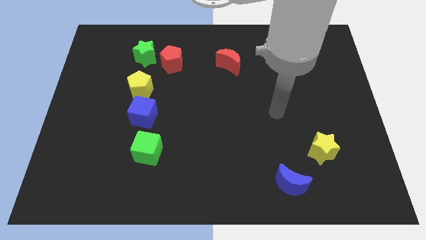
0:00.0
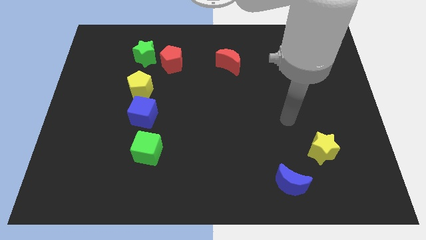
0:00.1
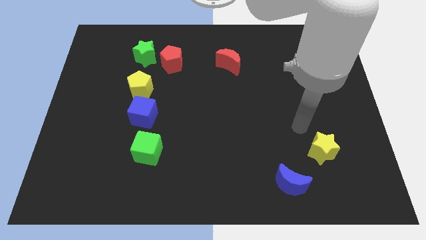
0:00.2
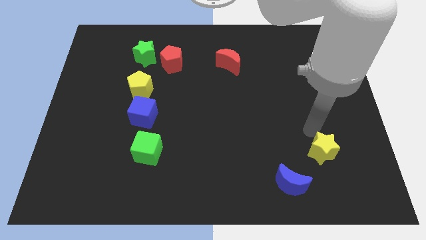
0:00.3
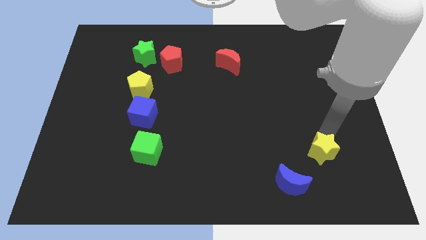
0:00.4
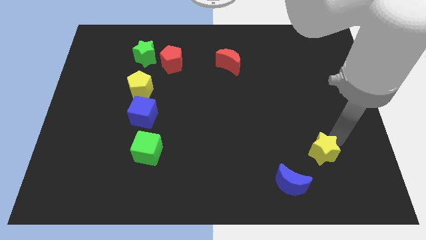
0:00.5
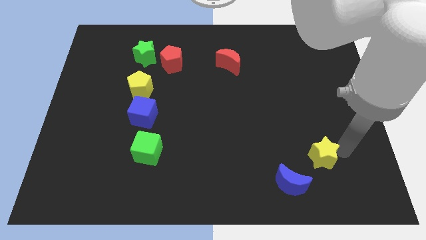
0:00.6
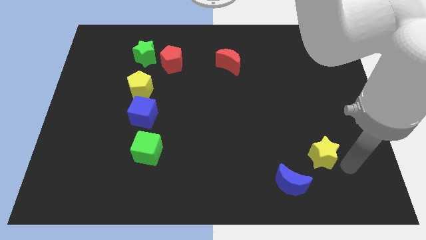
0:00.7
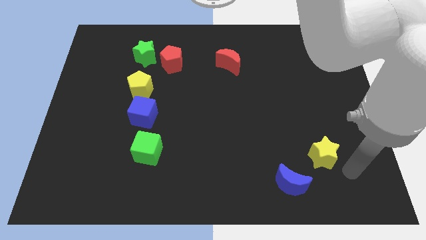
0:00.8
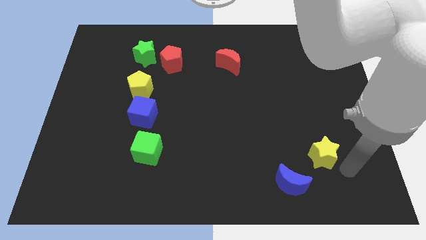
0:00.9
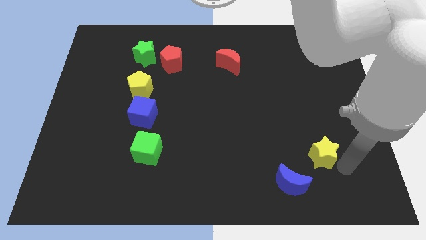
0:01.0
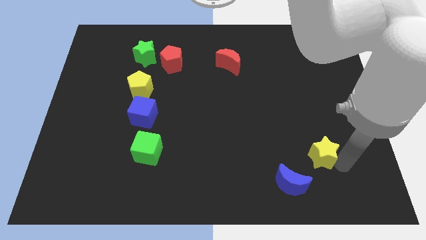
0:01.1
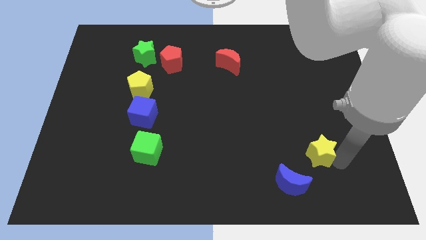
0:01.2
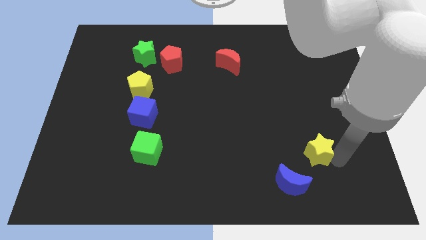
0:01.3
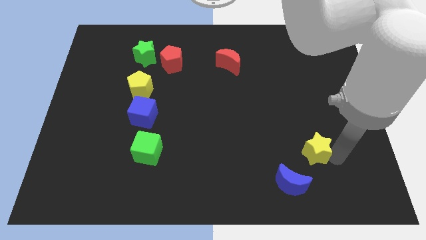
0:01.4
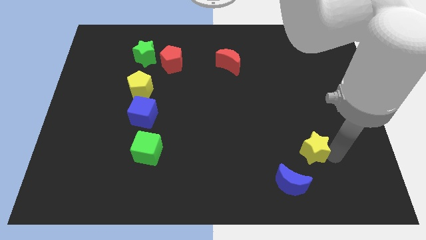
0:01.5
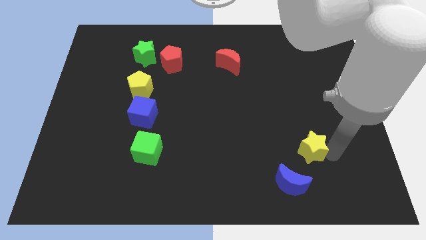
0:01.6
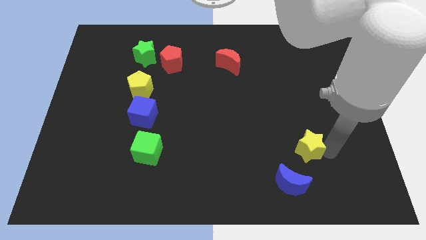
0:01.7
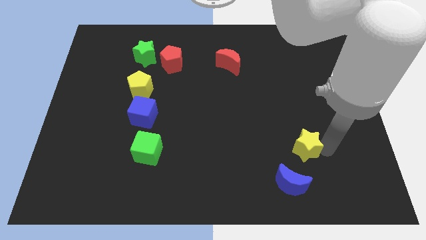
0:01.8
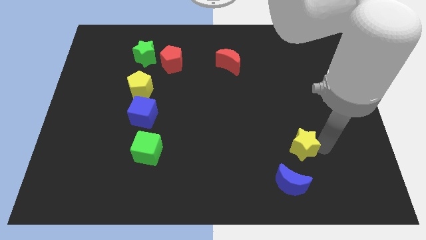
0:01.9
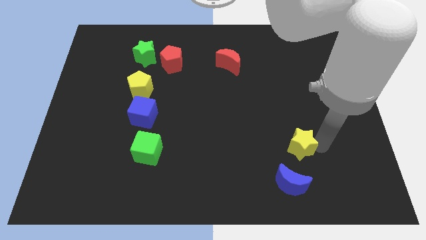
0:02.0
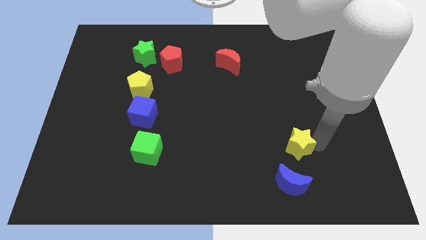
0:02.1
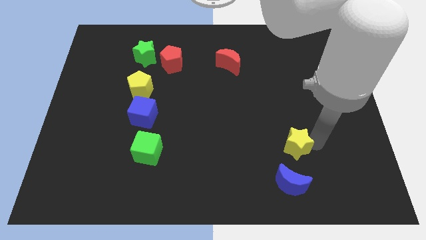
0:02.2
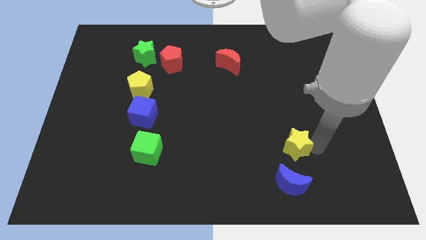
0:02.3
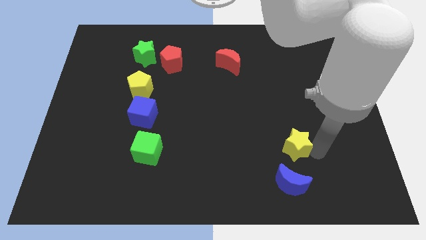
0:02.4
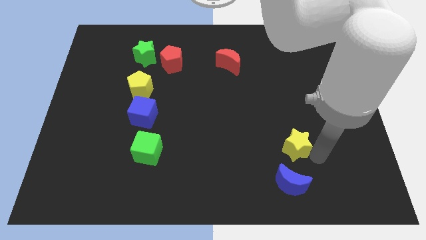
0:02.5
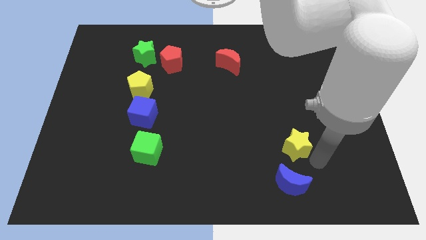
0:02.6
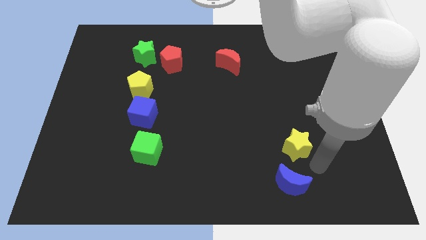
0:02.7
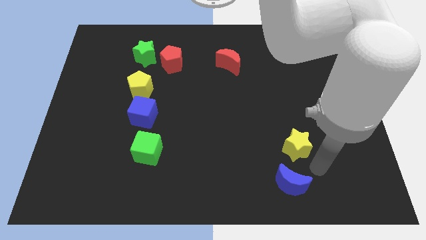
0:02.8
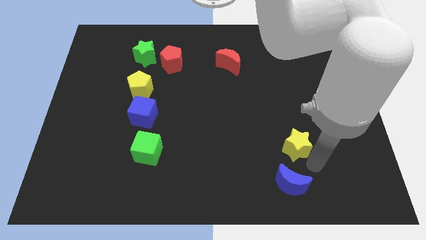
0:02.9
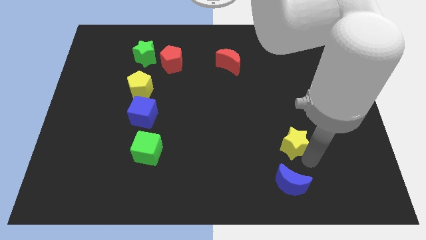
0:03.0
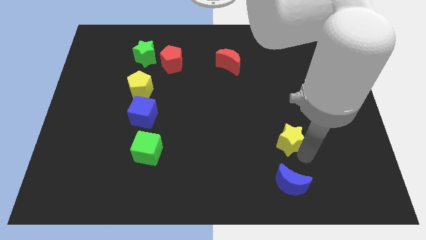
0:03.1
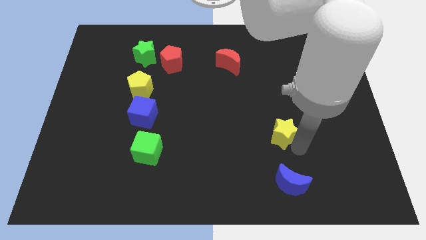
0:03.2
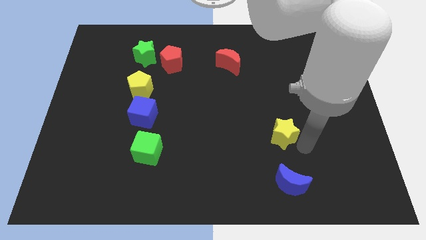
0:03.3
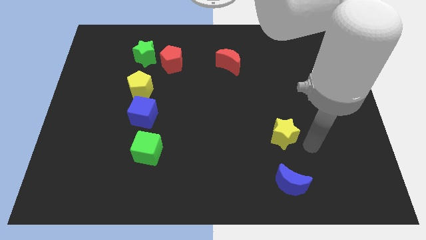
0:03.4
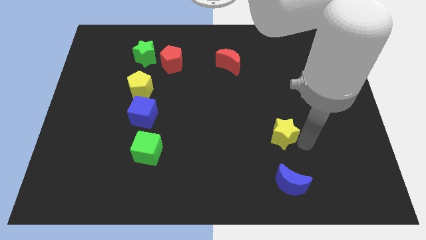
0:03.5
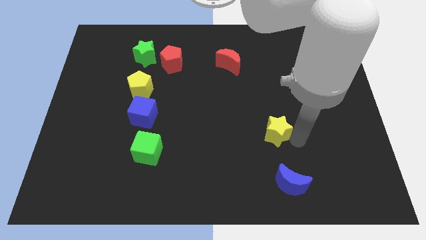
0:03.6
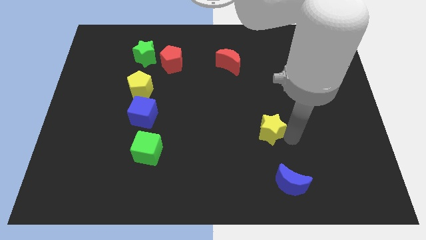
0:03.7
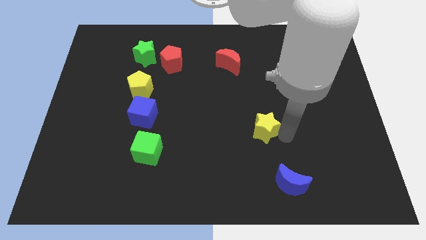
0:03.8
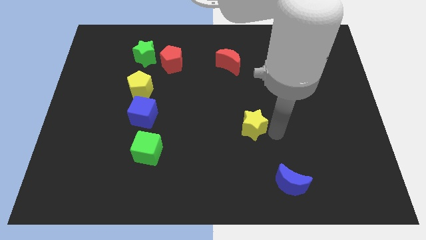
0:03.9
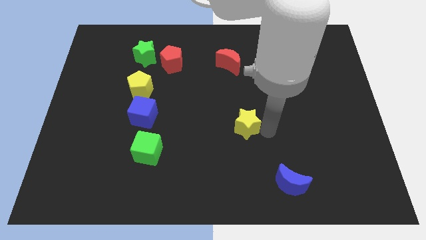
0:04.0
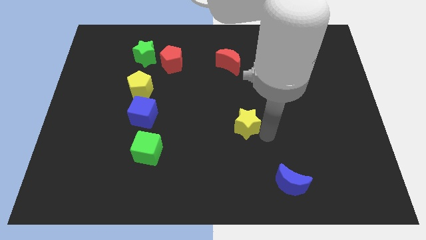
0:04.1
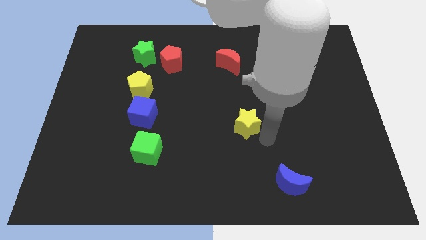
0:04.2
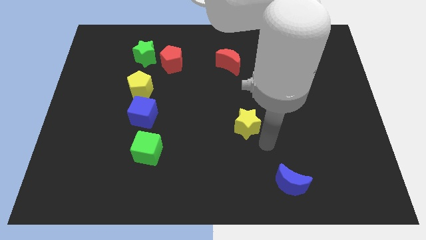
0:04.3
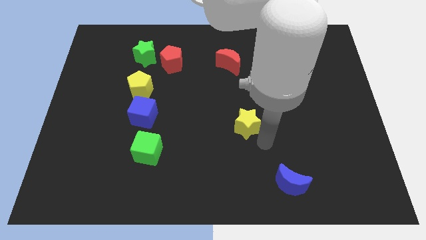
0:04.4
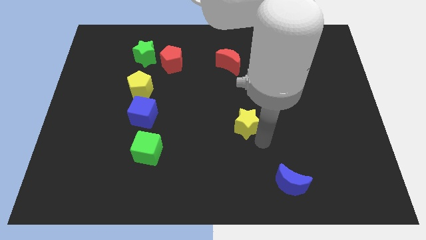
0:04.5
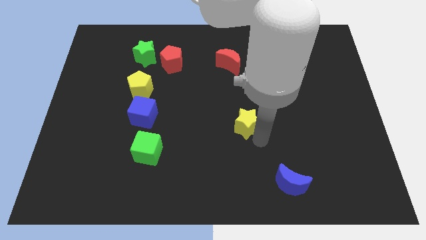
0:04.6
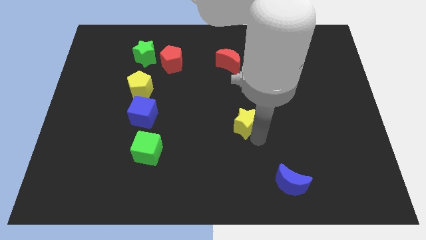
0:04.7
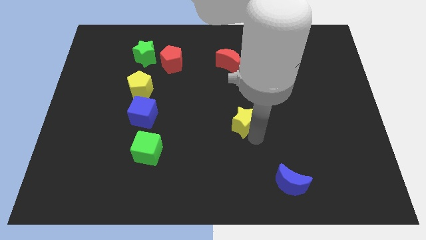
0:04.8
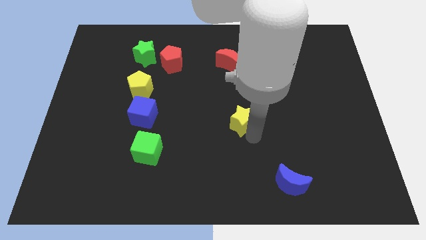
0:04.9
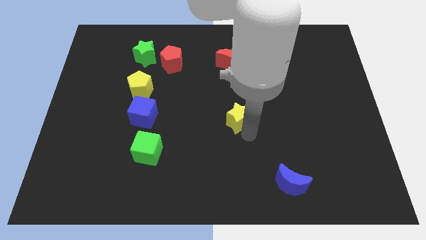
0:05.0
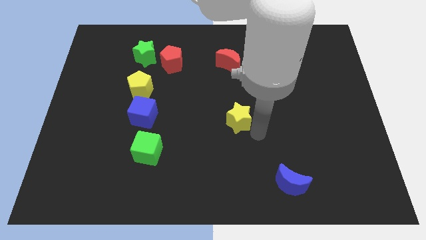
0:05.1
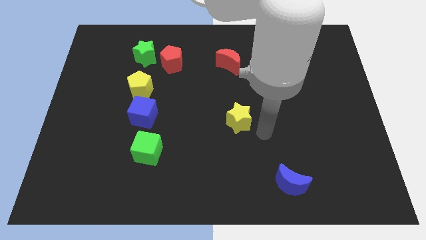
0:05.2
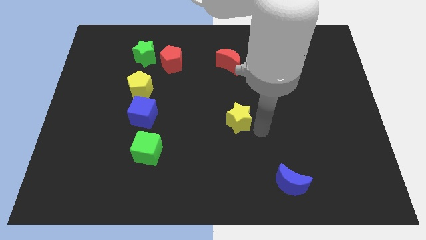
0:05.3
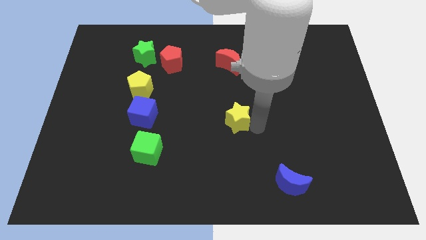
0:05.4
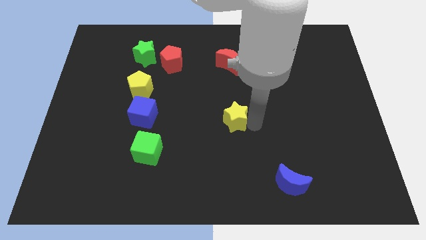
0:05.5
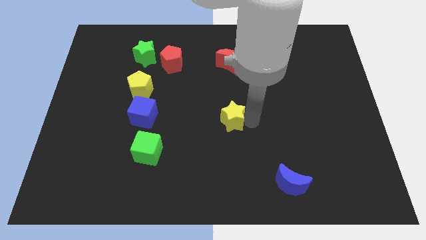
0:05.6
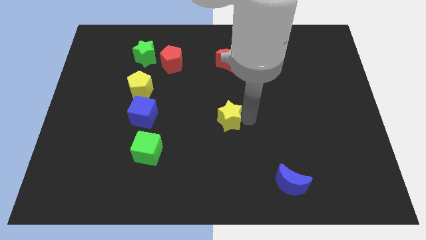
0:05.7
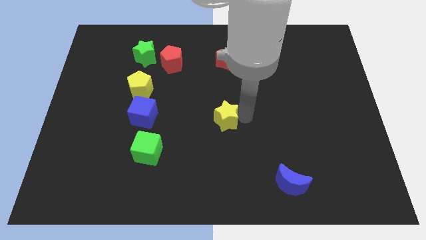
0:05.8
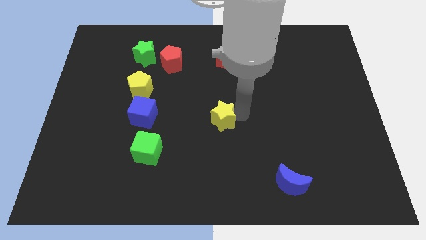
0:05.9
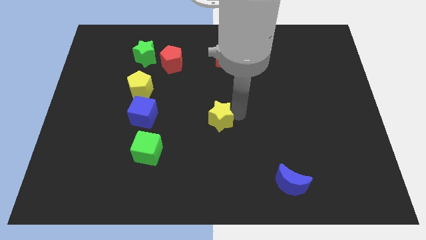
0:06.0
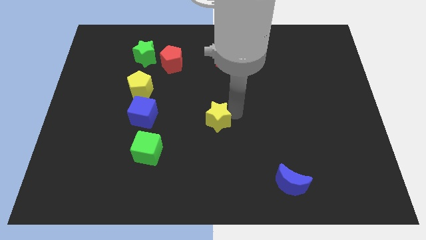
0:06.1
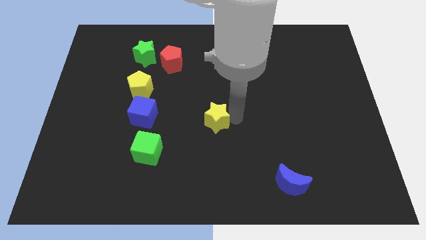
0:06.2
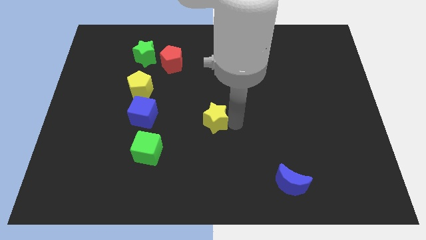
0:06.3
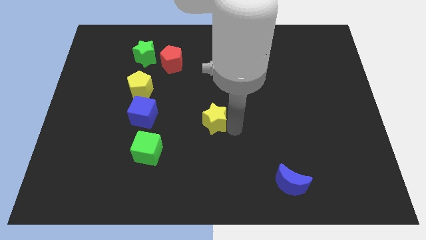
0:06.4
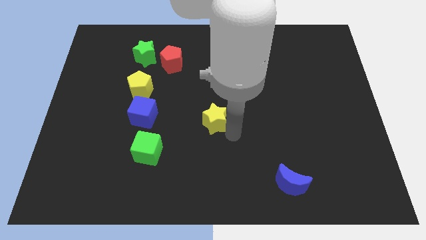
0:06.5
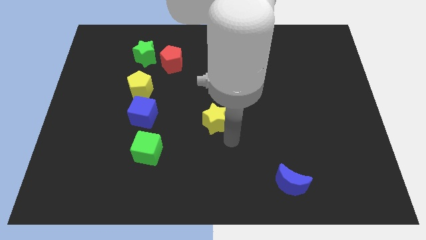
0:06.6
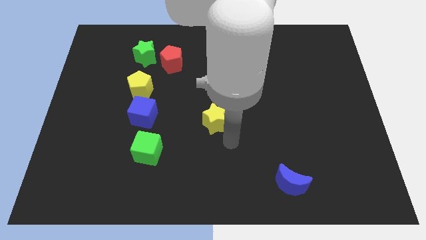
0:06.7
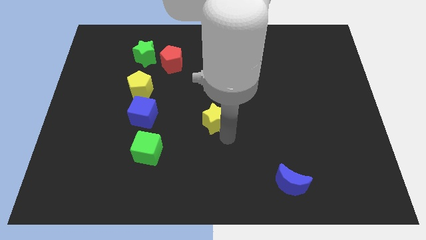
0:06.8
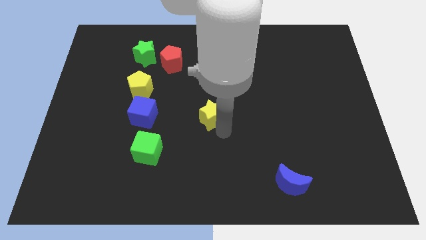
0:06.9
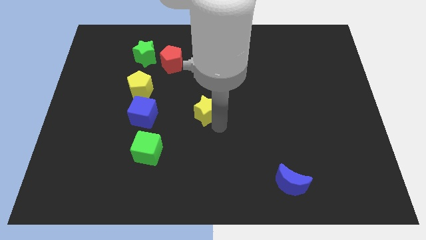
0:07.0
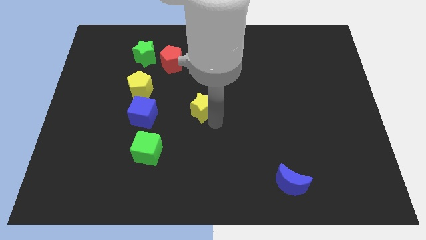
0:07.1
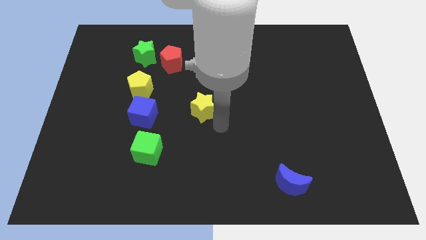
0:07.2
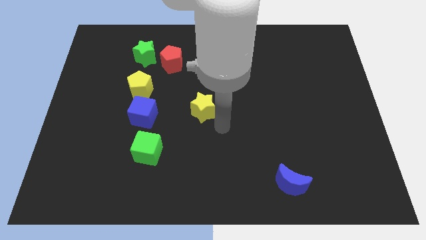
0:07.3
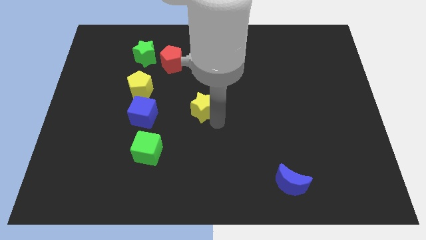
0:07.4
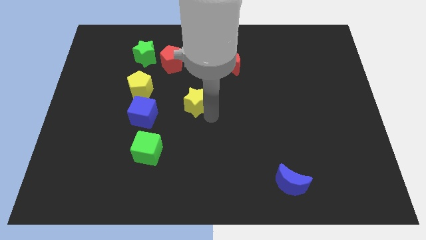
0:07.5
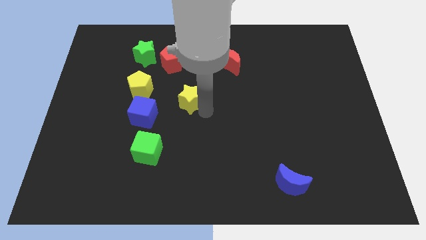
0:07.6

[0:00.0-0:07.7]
slide the yellow star right of the yellow pentagon
